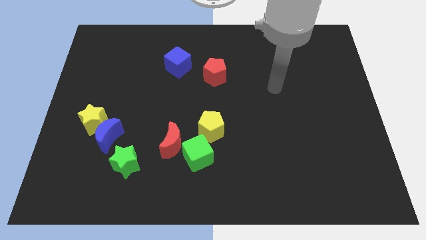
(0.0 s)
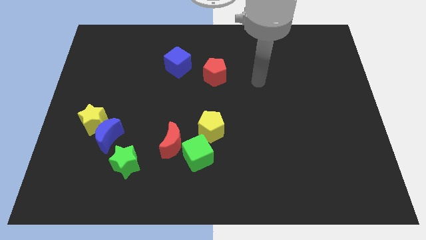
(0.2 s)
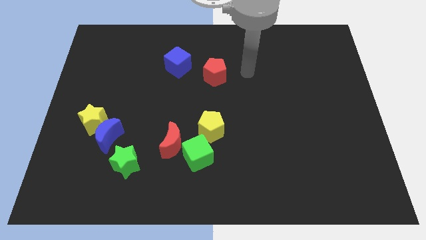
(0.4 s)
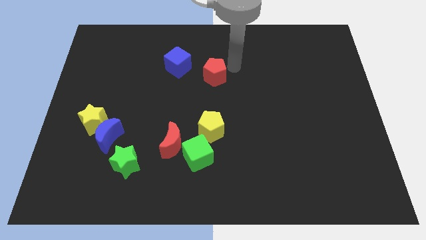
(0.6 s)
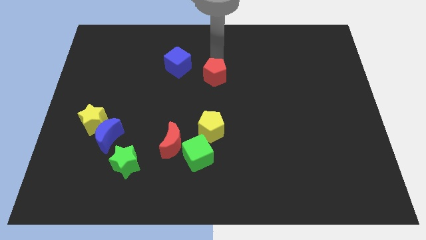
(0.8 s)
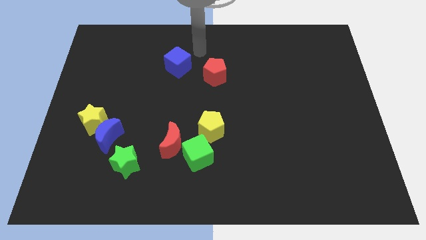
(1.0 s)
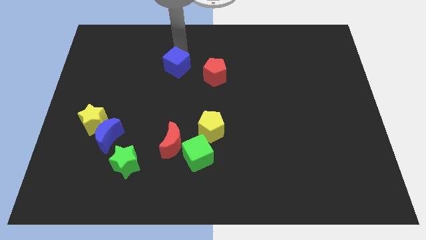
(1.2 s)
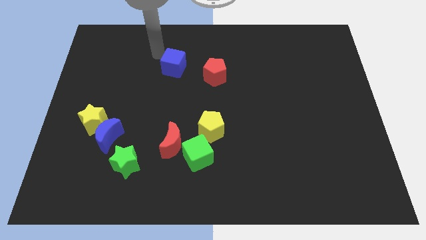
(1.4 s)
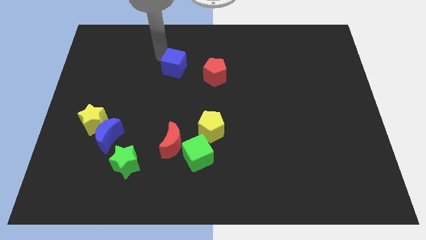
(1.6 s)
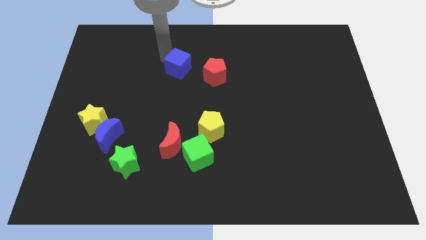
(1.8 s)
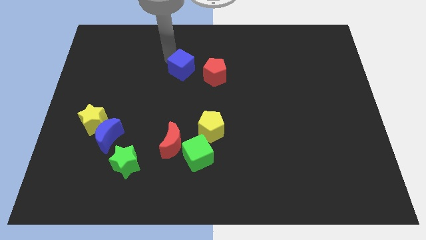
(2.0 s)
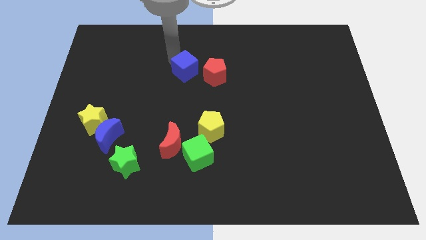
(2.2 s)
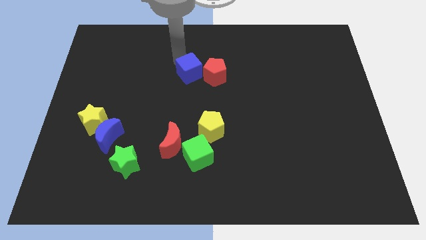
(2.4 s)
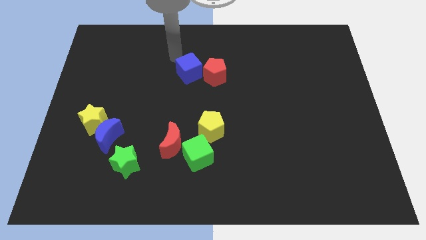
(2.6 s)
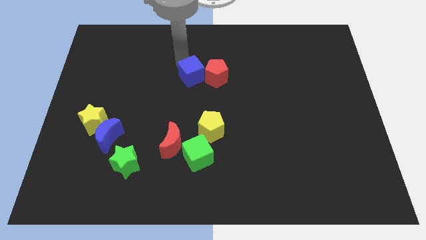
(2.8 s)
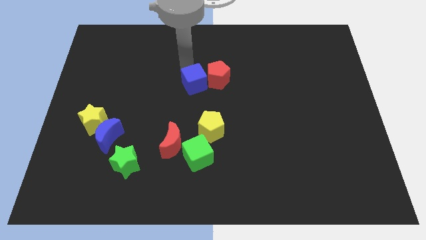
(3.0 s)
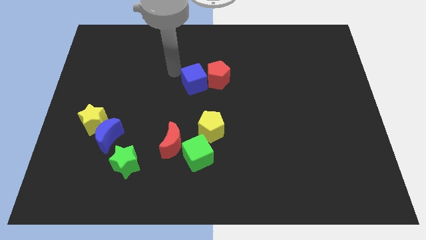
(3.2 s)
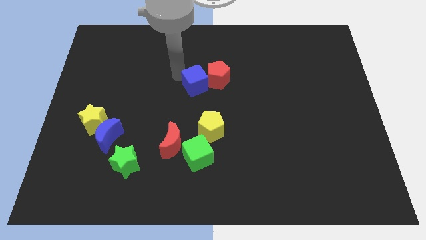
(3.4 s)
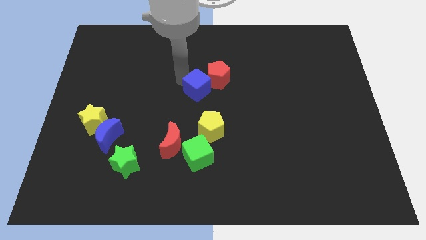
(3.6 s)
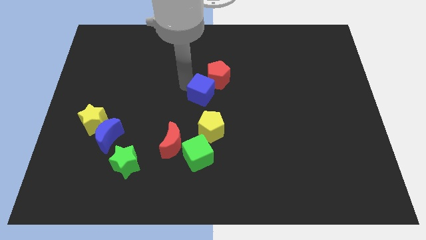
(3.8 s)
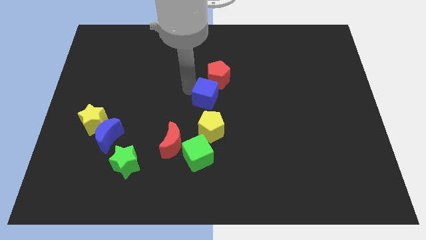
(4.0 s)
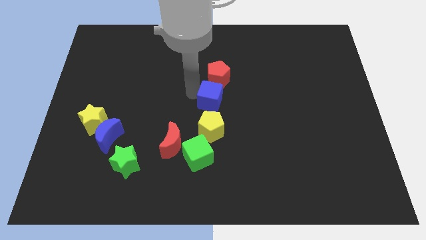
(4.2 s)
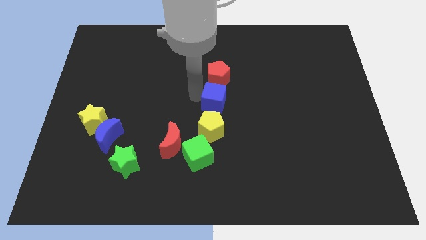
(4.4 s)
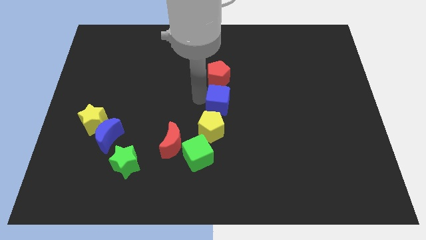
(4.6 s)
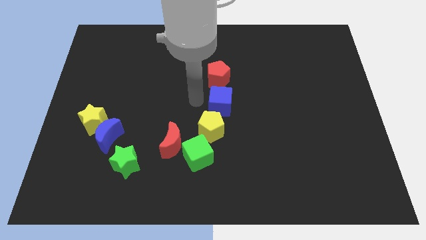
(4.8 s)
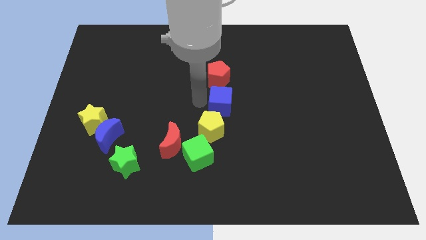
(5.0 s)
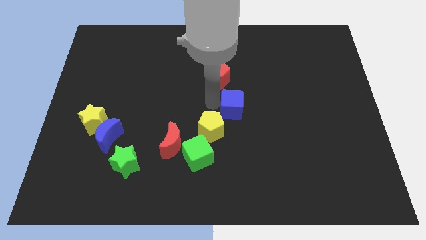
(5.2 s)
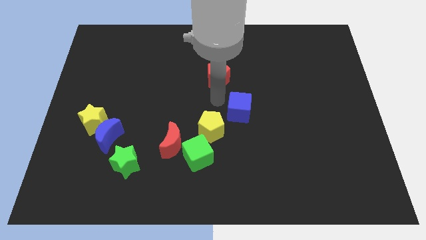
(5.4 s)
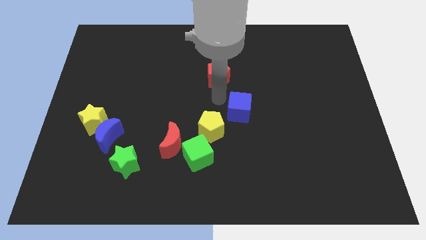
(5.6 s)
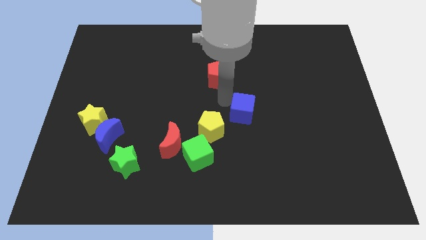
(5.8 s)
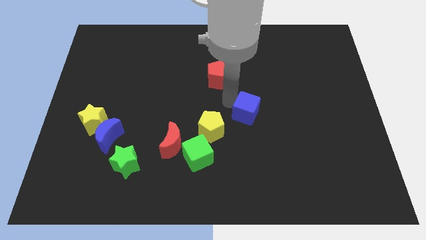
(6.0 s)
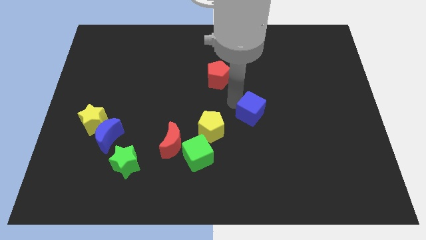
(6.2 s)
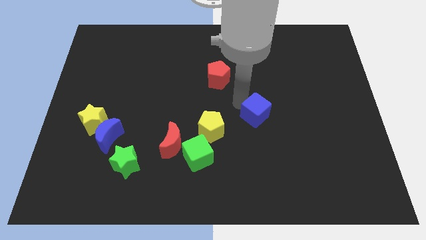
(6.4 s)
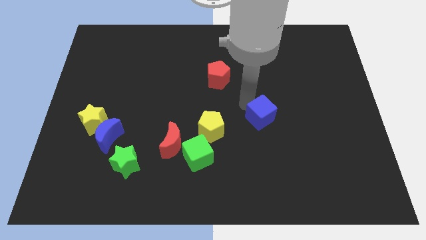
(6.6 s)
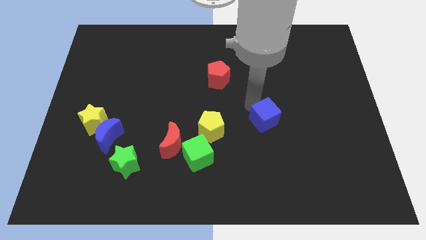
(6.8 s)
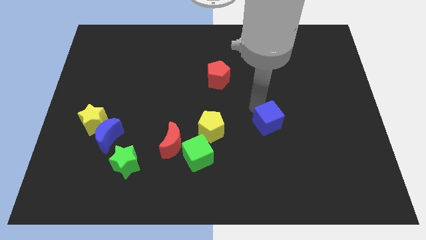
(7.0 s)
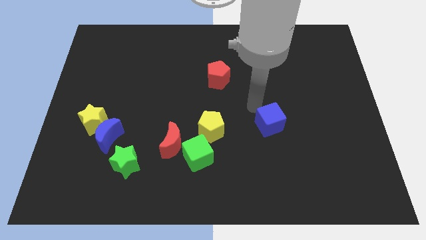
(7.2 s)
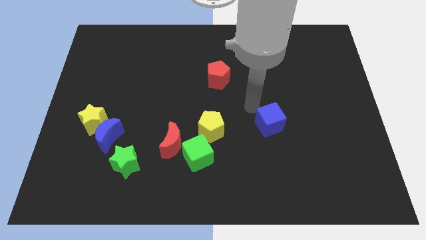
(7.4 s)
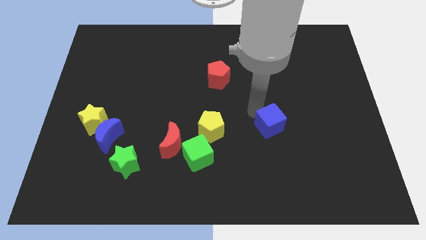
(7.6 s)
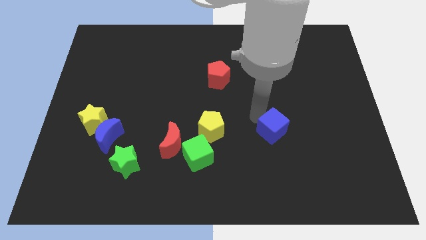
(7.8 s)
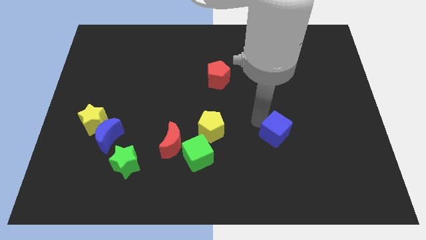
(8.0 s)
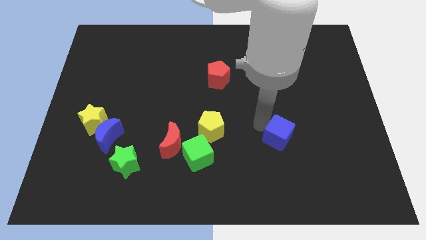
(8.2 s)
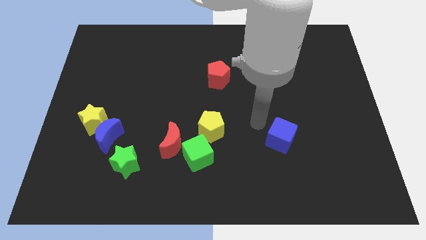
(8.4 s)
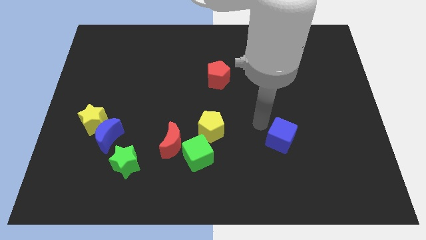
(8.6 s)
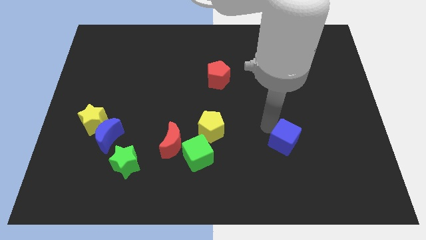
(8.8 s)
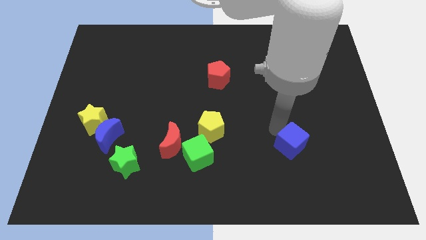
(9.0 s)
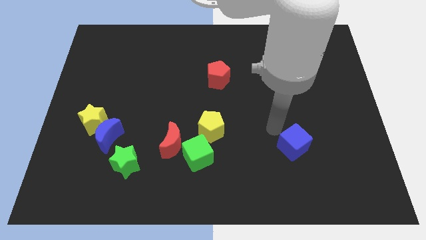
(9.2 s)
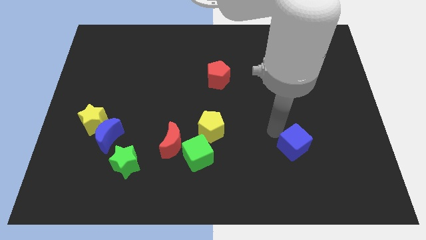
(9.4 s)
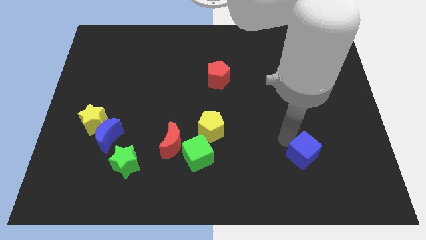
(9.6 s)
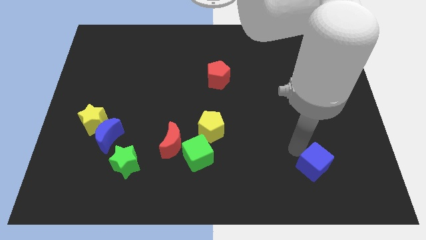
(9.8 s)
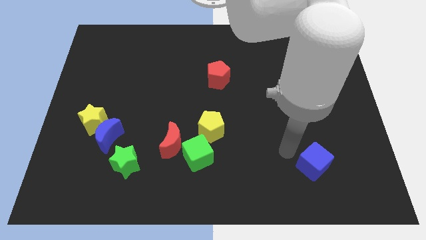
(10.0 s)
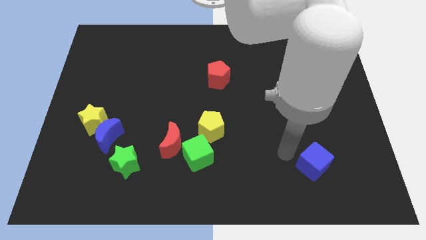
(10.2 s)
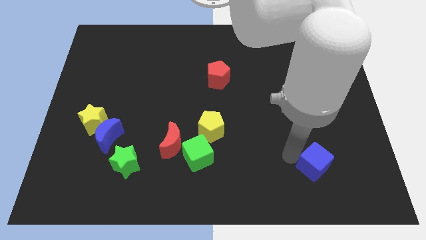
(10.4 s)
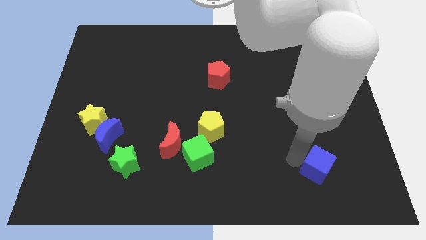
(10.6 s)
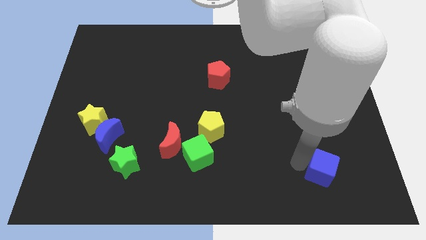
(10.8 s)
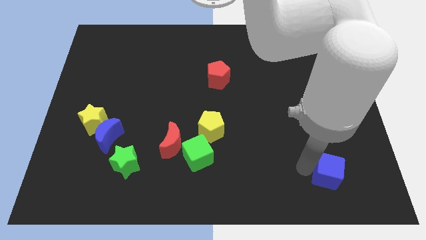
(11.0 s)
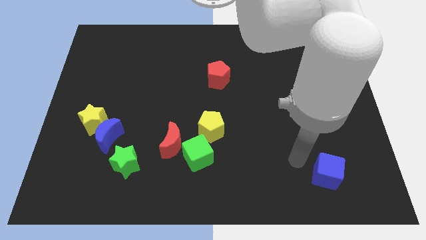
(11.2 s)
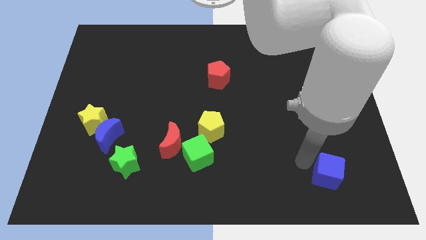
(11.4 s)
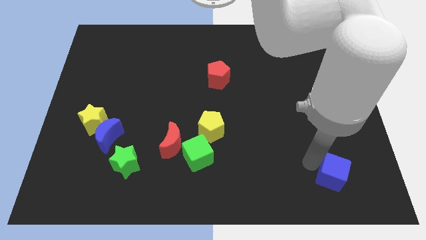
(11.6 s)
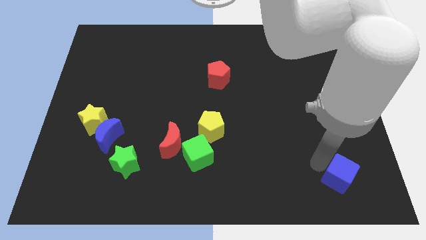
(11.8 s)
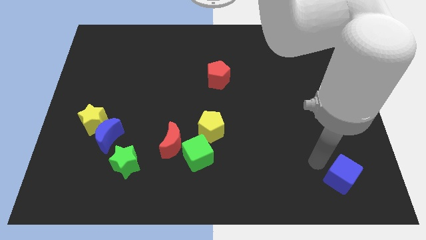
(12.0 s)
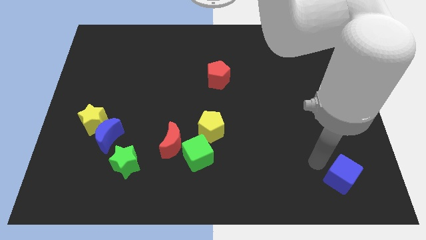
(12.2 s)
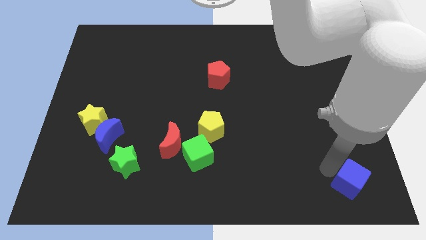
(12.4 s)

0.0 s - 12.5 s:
push the blue cube to the bottom right of the board
